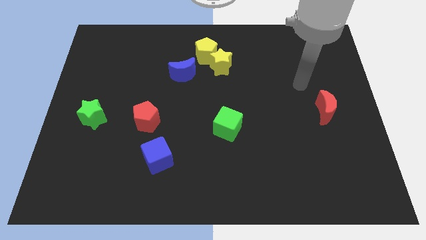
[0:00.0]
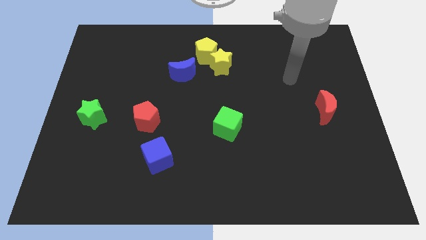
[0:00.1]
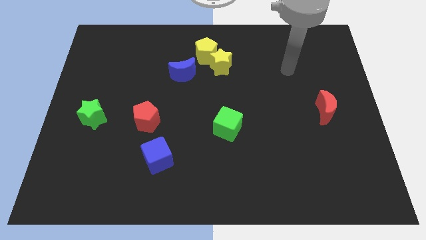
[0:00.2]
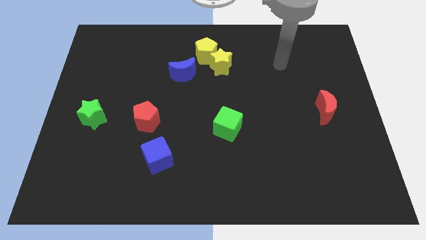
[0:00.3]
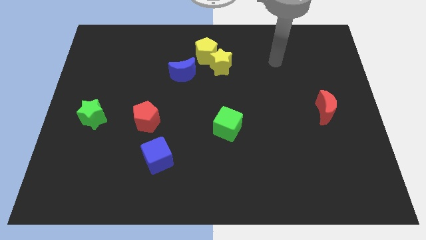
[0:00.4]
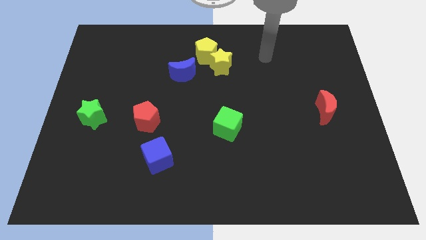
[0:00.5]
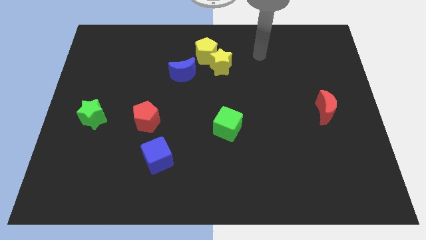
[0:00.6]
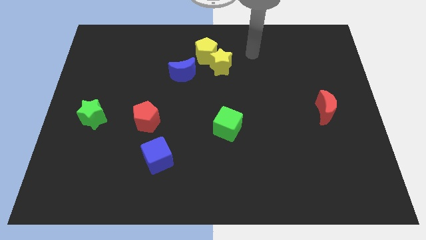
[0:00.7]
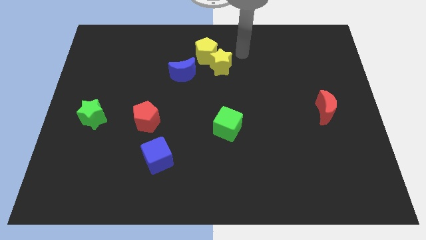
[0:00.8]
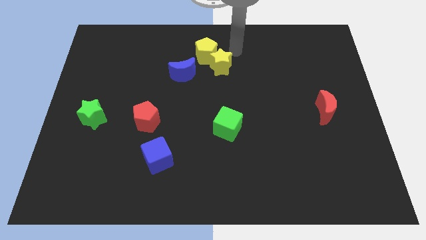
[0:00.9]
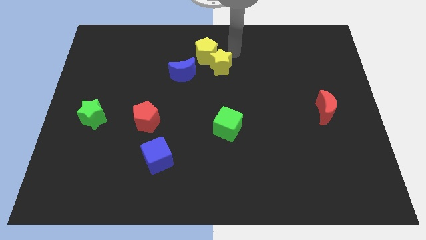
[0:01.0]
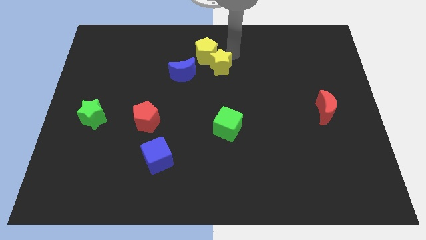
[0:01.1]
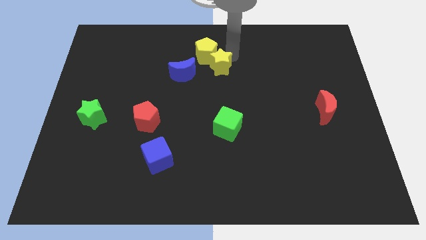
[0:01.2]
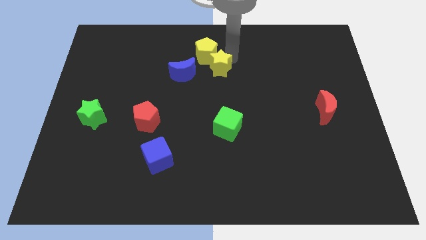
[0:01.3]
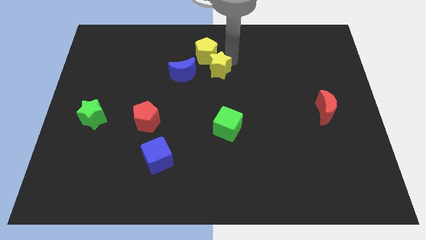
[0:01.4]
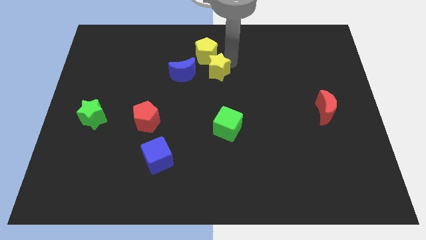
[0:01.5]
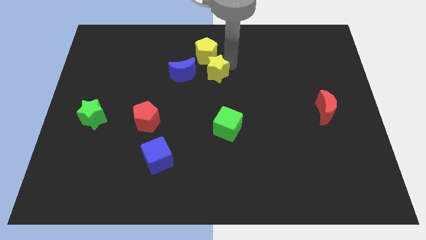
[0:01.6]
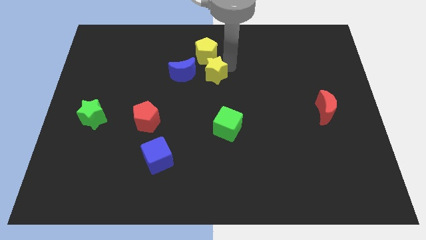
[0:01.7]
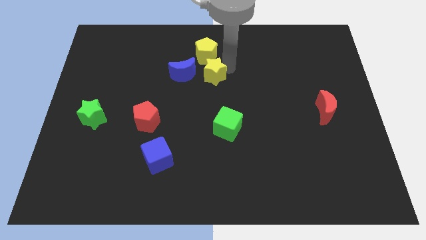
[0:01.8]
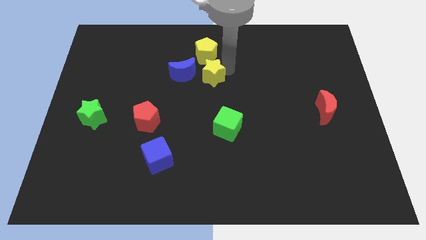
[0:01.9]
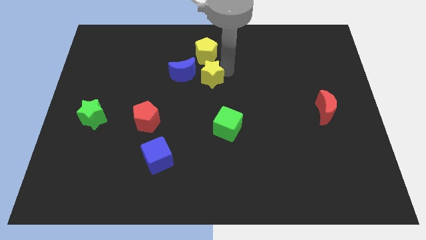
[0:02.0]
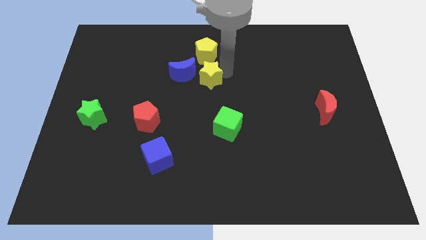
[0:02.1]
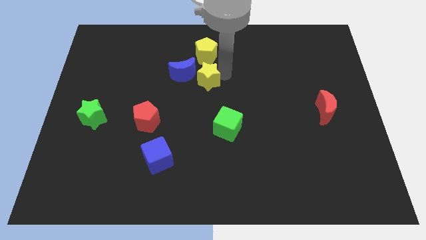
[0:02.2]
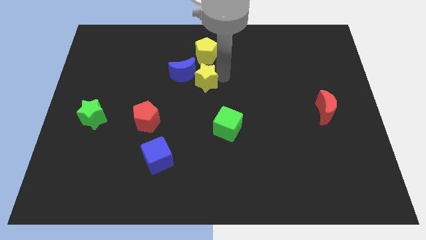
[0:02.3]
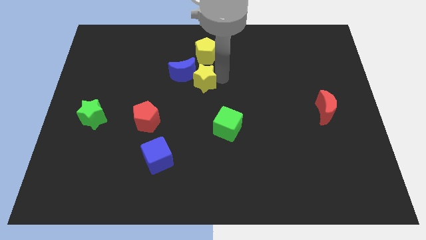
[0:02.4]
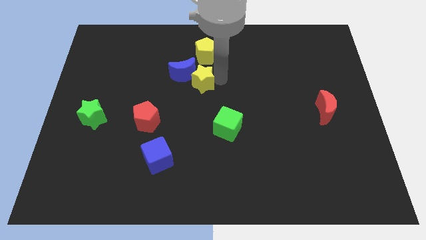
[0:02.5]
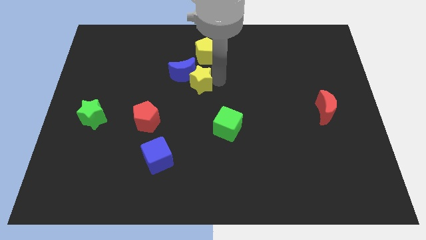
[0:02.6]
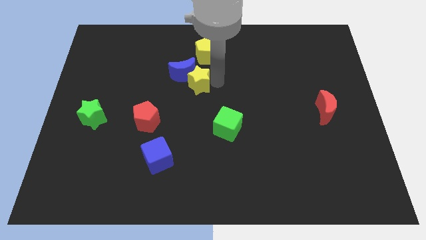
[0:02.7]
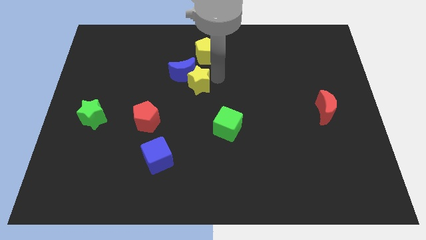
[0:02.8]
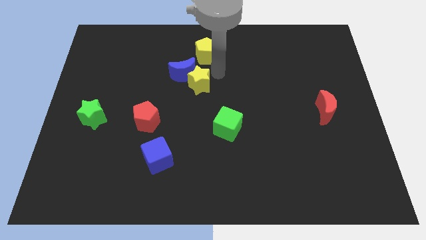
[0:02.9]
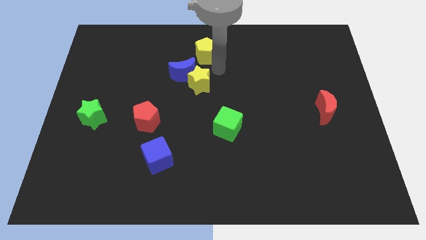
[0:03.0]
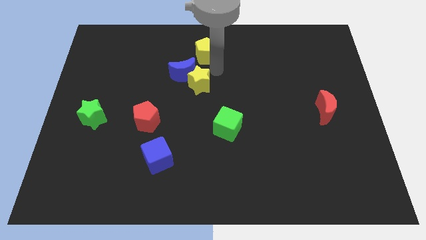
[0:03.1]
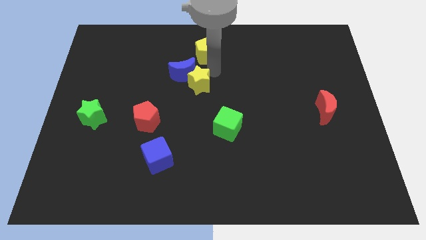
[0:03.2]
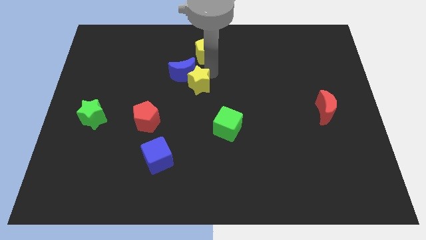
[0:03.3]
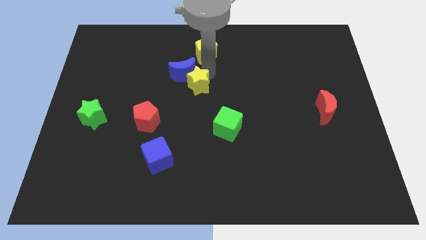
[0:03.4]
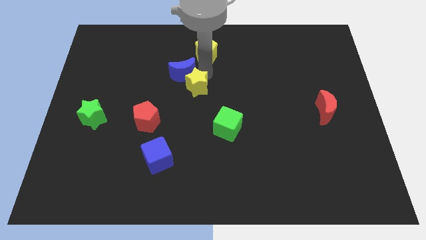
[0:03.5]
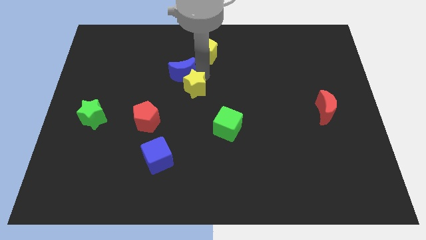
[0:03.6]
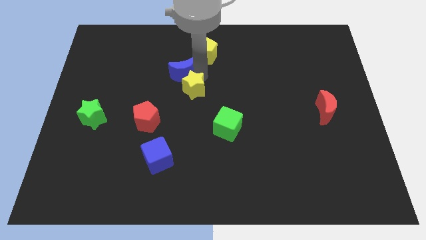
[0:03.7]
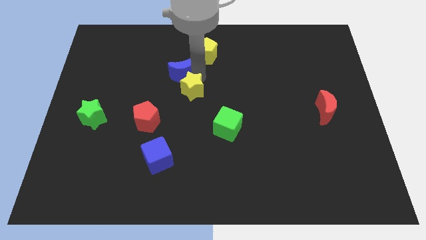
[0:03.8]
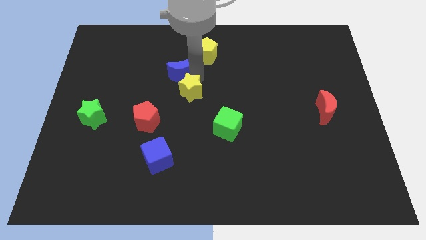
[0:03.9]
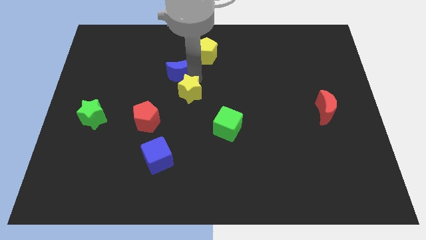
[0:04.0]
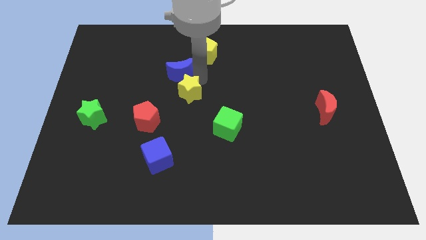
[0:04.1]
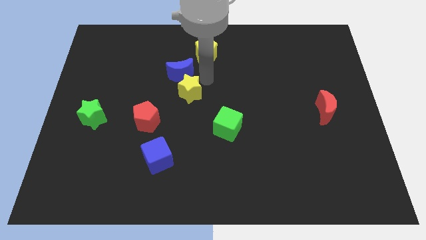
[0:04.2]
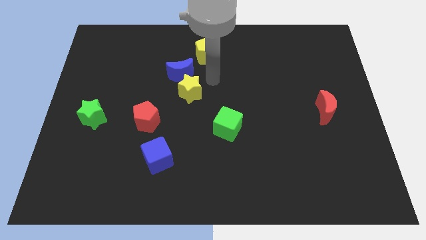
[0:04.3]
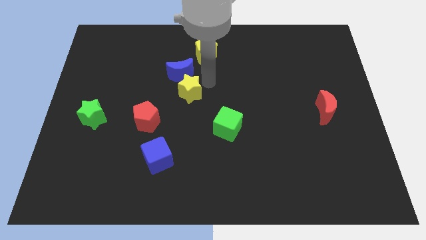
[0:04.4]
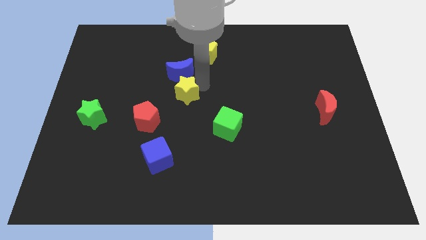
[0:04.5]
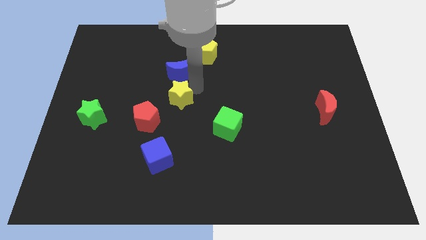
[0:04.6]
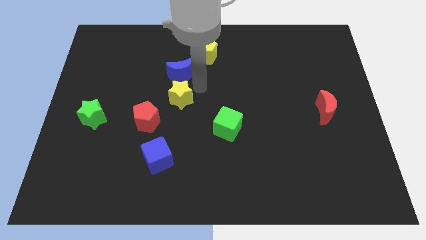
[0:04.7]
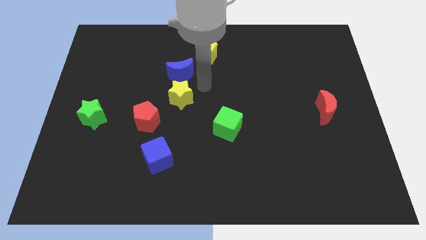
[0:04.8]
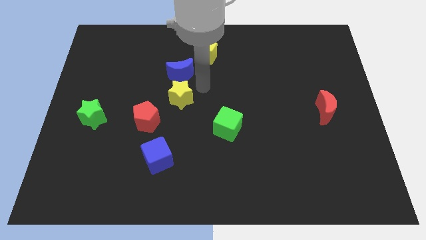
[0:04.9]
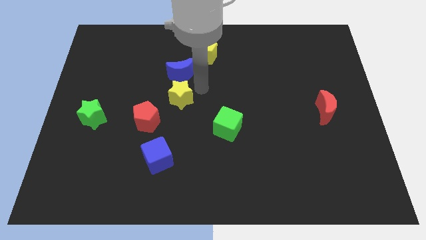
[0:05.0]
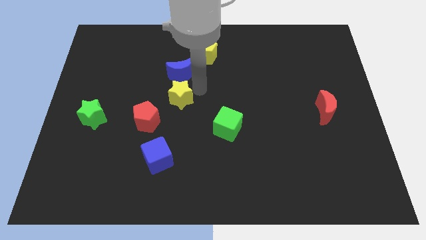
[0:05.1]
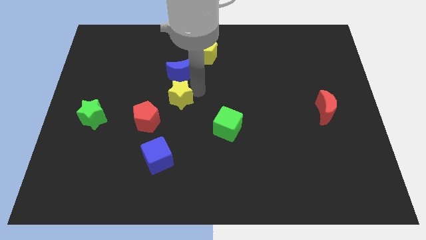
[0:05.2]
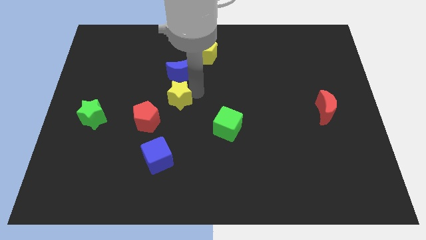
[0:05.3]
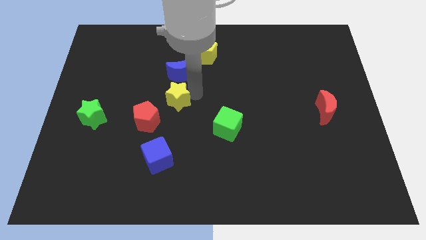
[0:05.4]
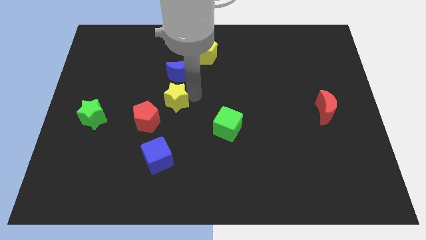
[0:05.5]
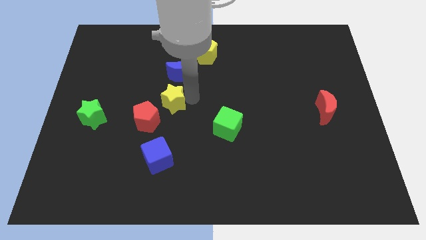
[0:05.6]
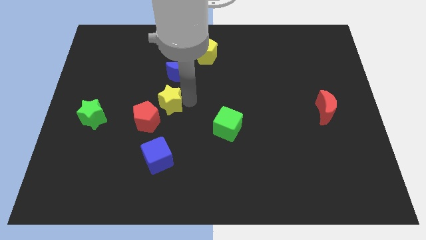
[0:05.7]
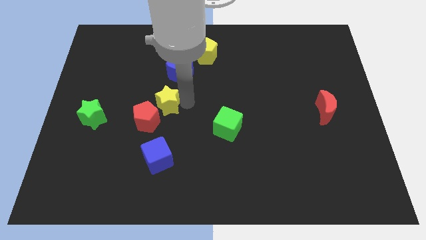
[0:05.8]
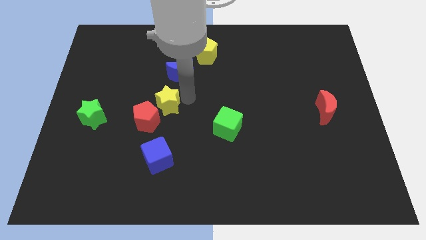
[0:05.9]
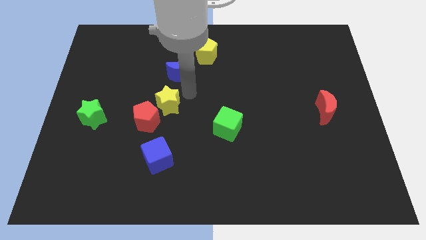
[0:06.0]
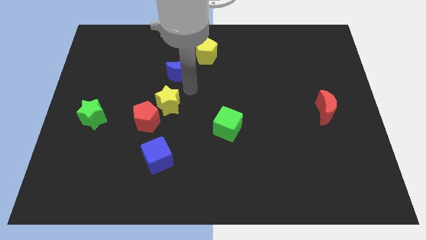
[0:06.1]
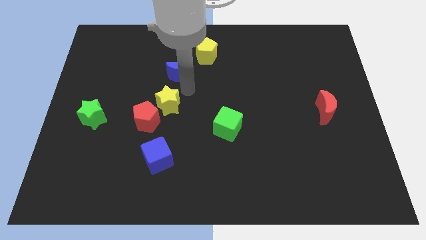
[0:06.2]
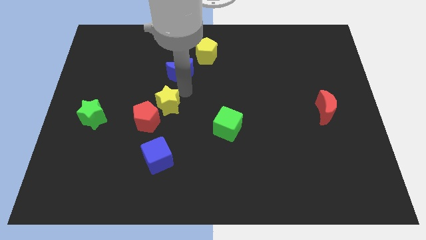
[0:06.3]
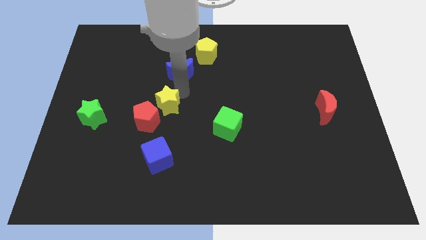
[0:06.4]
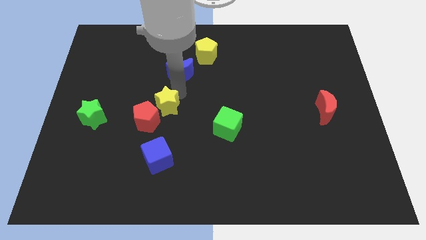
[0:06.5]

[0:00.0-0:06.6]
push the yellow star towards the red pentagon
